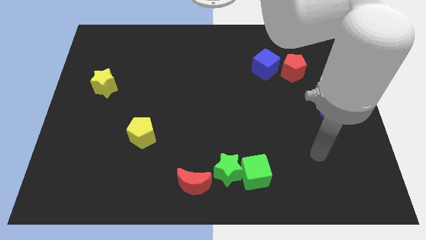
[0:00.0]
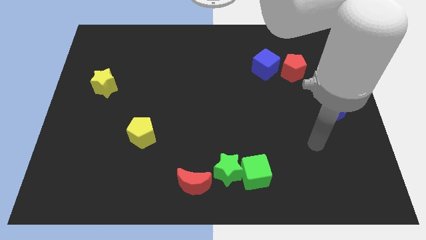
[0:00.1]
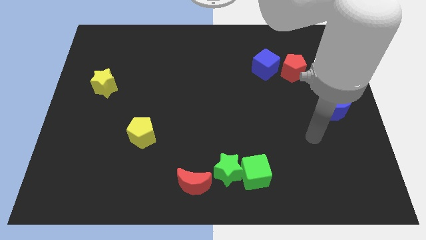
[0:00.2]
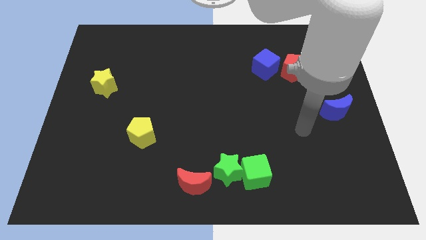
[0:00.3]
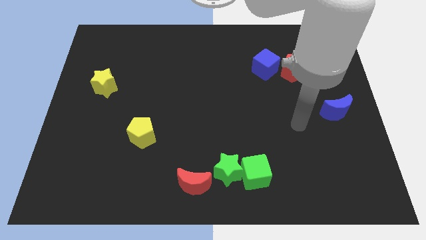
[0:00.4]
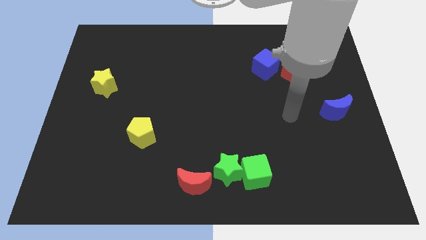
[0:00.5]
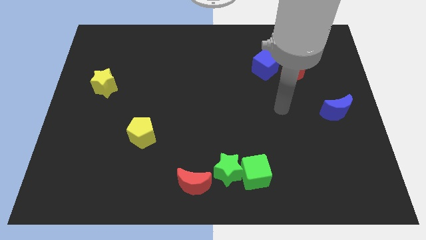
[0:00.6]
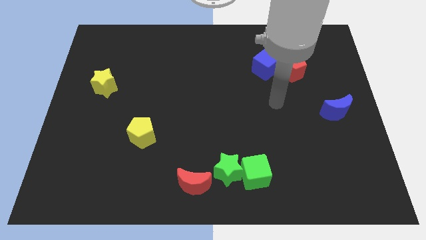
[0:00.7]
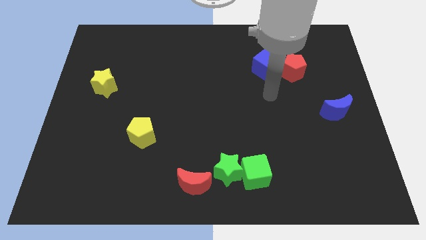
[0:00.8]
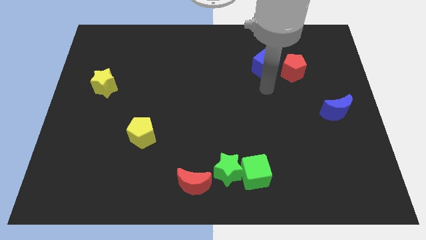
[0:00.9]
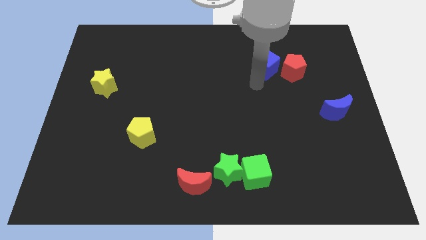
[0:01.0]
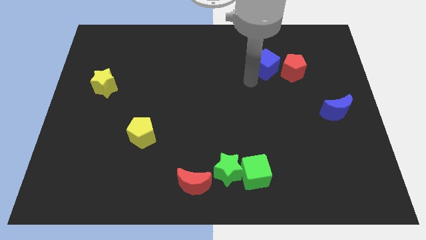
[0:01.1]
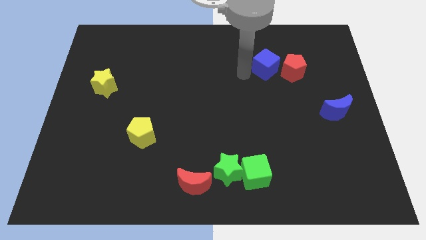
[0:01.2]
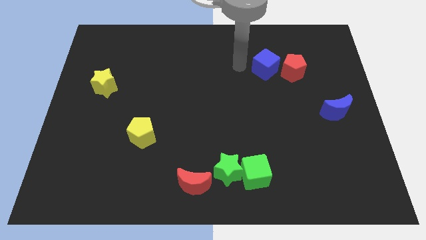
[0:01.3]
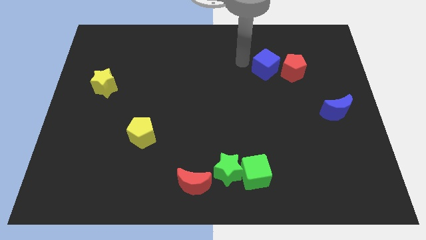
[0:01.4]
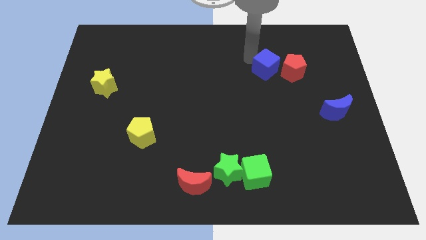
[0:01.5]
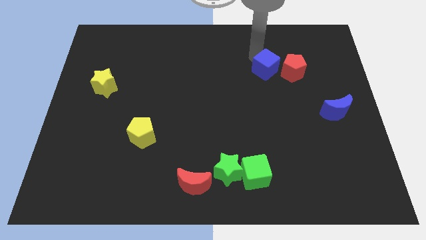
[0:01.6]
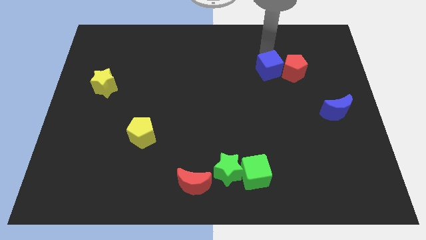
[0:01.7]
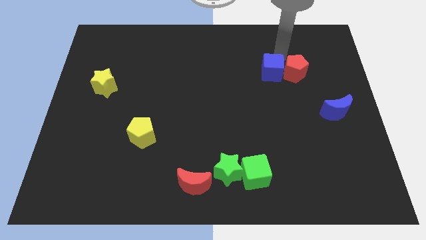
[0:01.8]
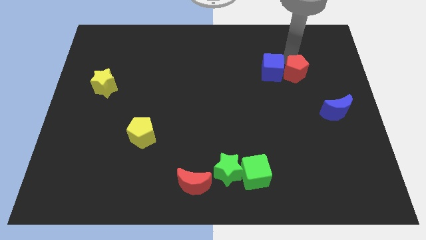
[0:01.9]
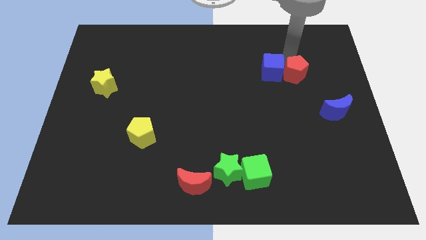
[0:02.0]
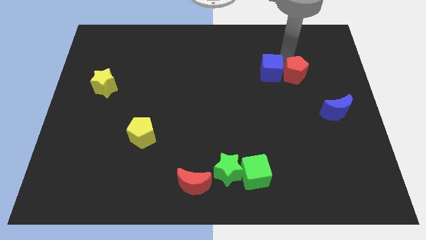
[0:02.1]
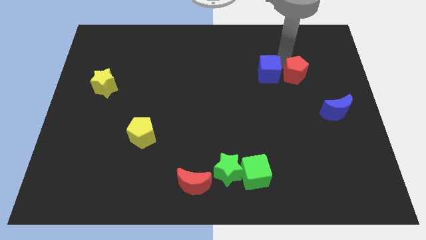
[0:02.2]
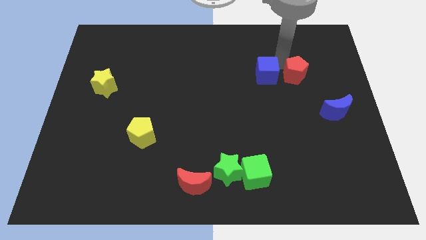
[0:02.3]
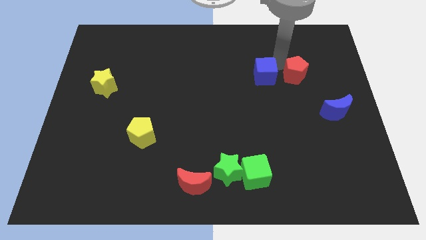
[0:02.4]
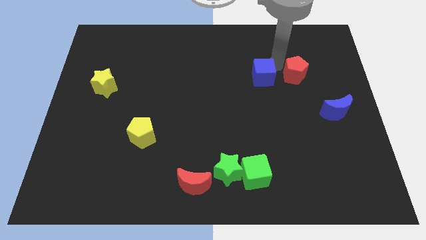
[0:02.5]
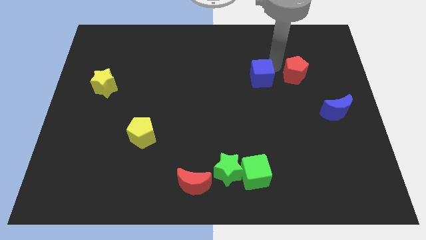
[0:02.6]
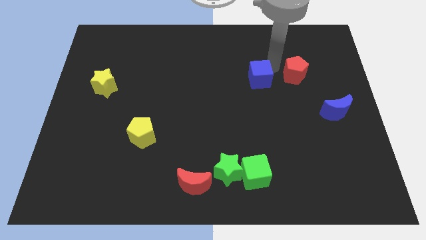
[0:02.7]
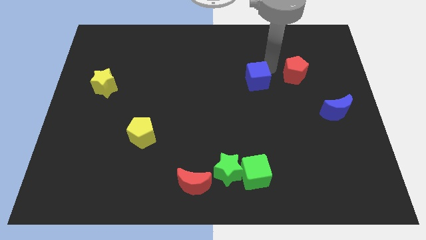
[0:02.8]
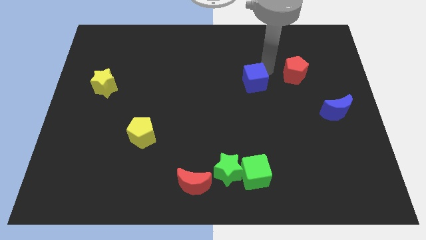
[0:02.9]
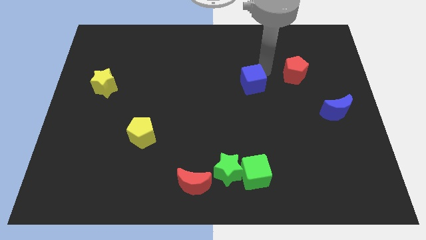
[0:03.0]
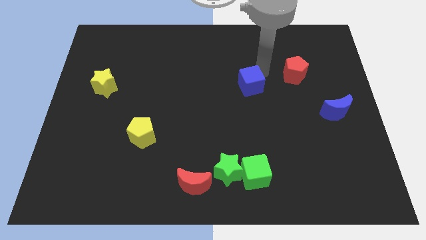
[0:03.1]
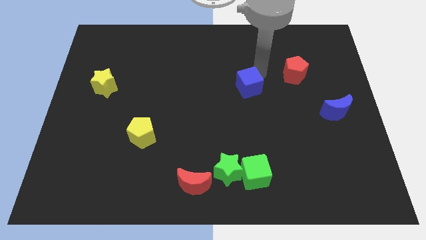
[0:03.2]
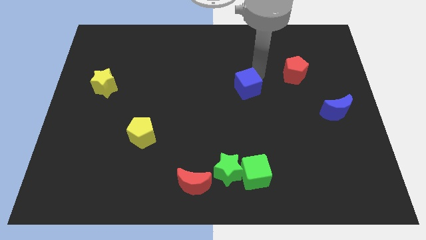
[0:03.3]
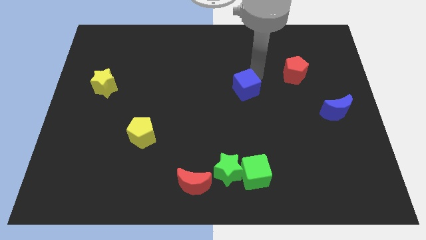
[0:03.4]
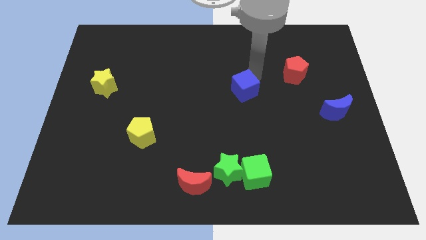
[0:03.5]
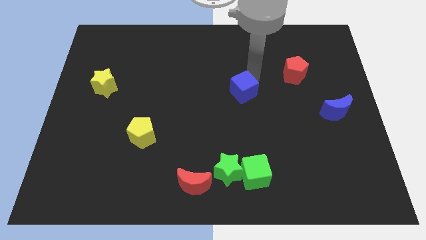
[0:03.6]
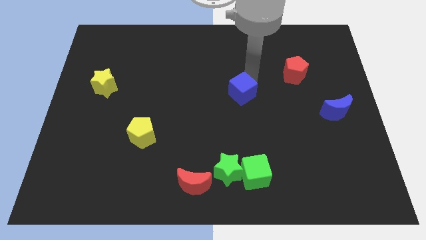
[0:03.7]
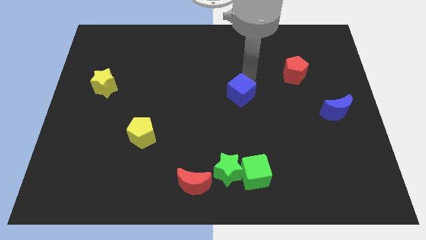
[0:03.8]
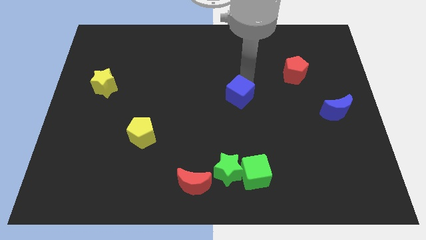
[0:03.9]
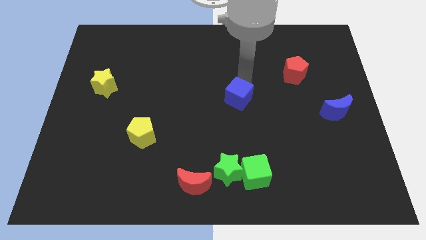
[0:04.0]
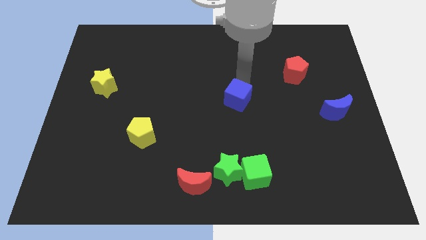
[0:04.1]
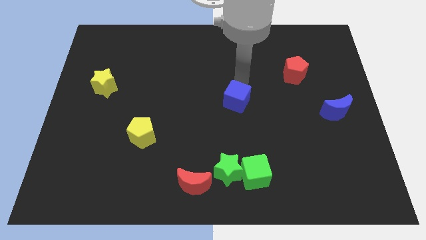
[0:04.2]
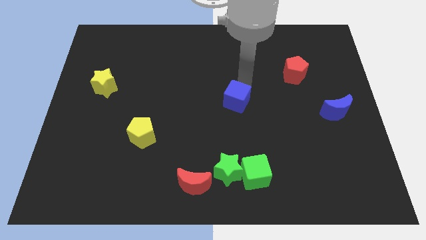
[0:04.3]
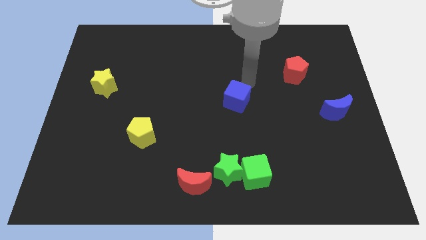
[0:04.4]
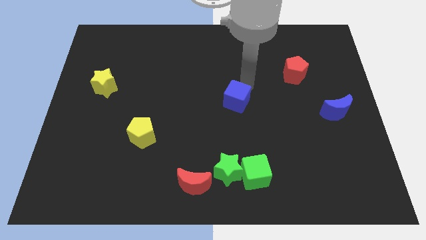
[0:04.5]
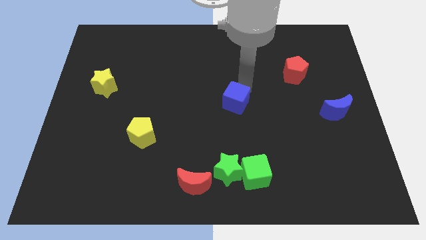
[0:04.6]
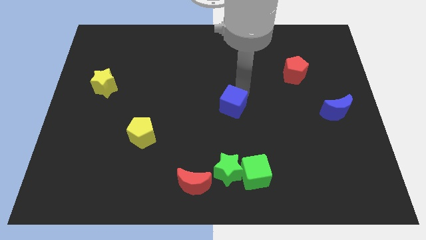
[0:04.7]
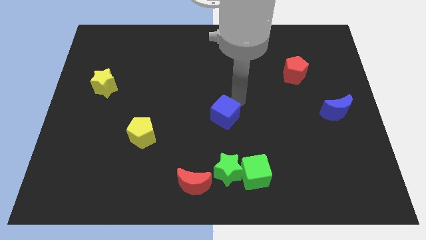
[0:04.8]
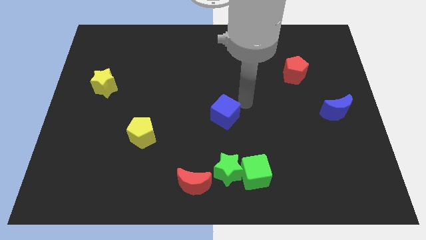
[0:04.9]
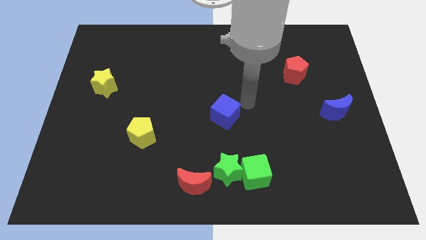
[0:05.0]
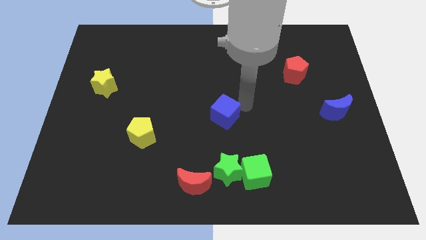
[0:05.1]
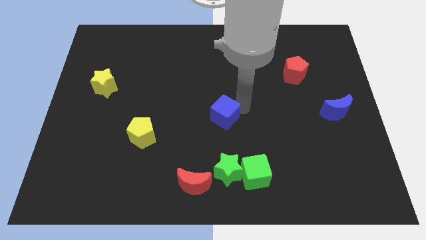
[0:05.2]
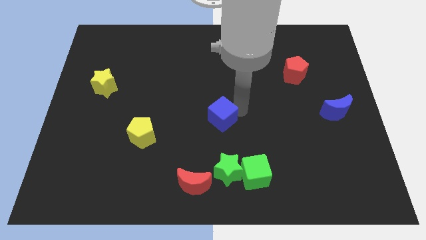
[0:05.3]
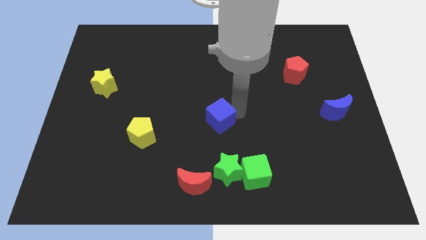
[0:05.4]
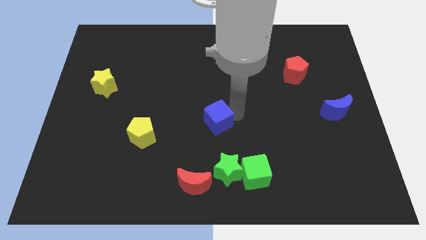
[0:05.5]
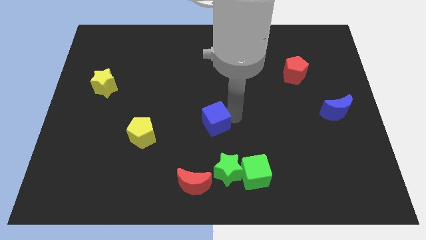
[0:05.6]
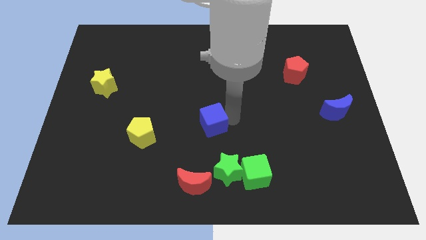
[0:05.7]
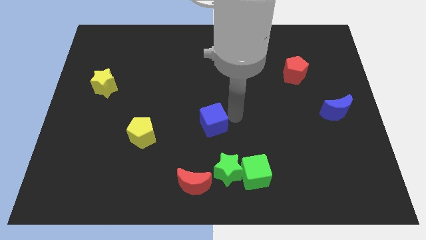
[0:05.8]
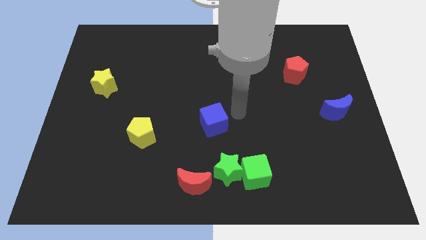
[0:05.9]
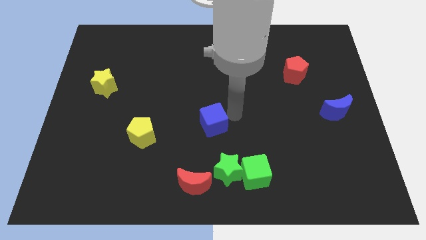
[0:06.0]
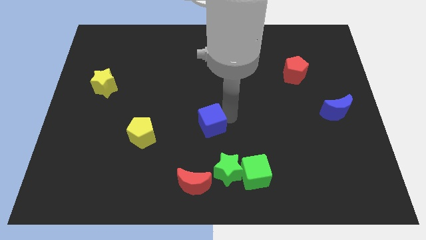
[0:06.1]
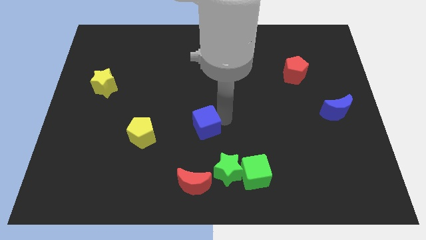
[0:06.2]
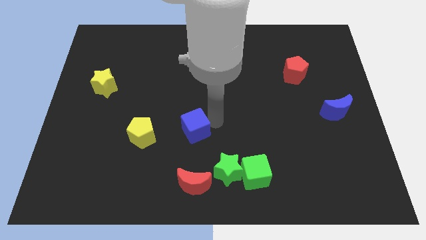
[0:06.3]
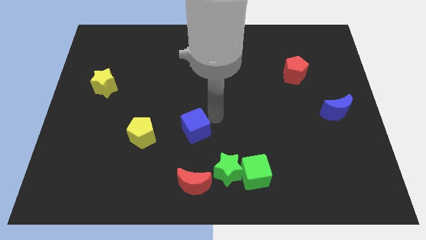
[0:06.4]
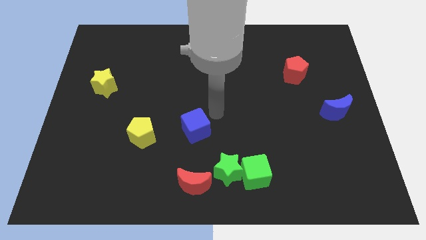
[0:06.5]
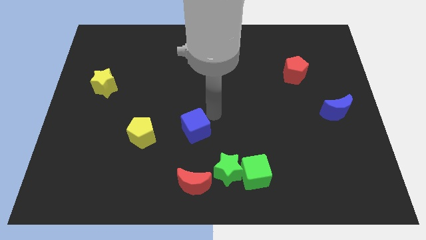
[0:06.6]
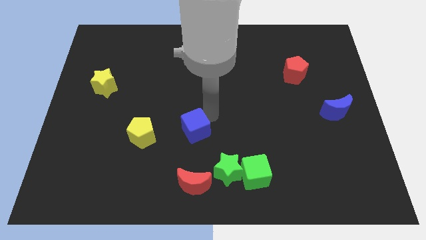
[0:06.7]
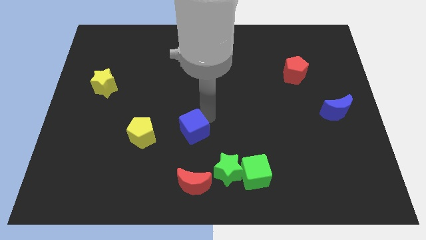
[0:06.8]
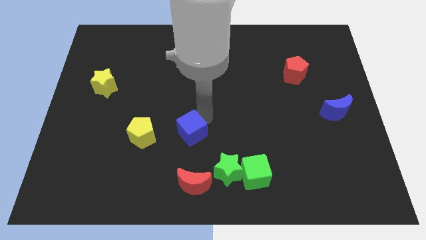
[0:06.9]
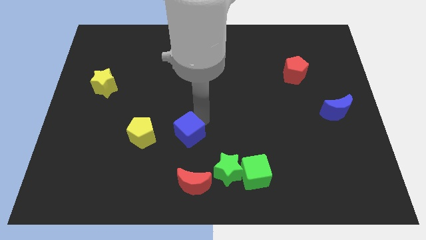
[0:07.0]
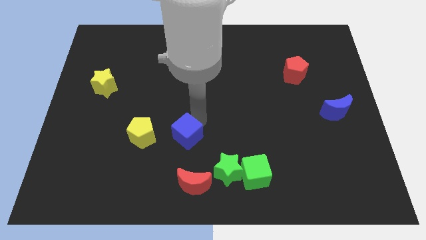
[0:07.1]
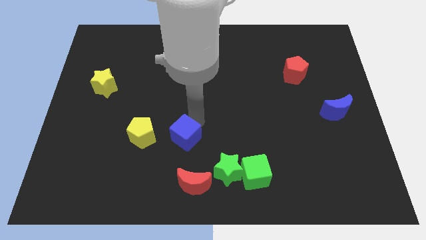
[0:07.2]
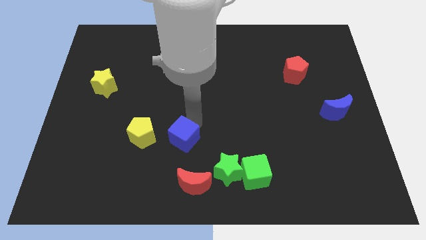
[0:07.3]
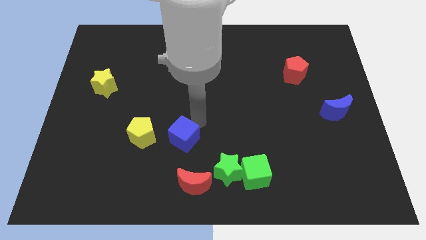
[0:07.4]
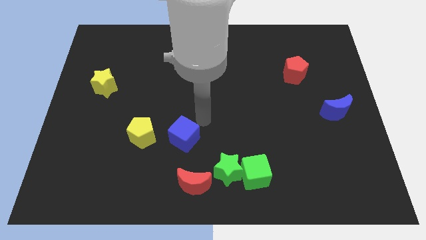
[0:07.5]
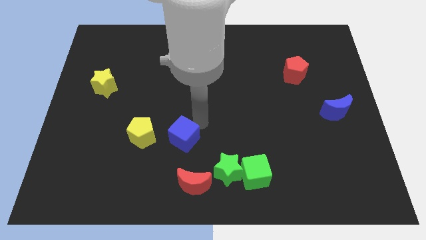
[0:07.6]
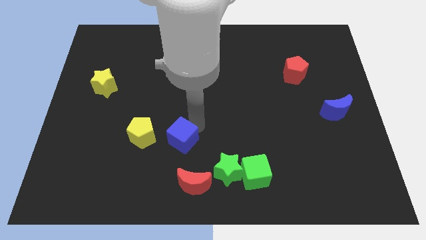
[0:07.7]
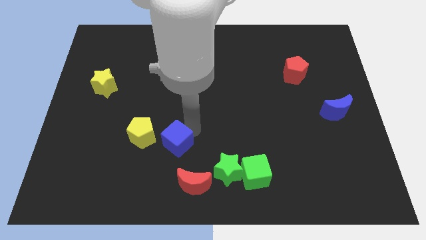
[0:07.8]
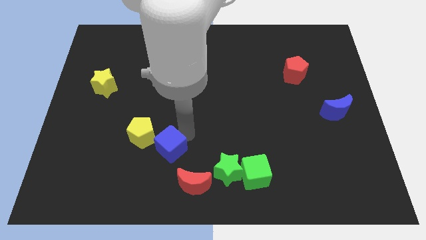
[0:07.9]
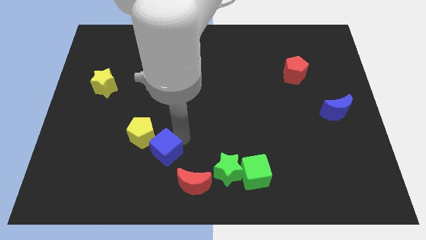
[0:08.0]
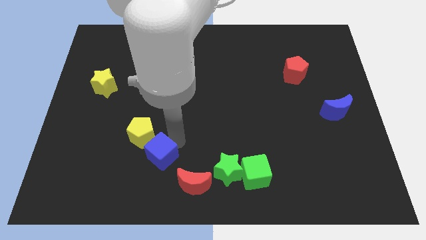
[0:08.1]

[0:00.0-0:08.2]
push the blue cube to the bottom side of the yellow pentagon
